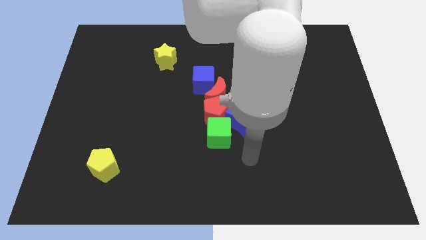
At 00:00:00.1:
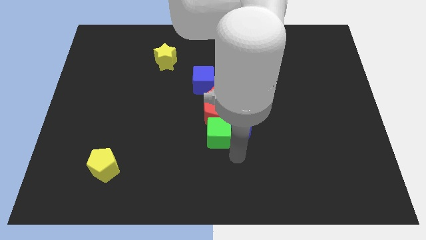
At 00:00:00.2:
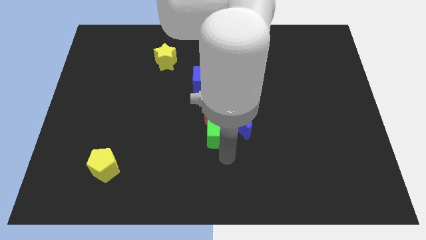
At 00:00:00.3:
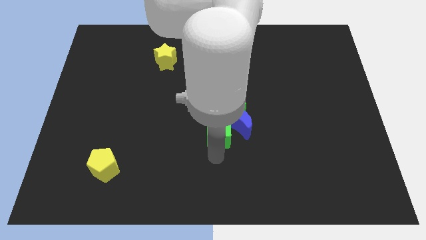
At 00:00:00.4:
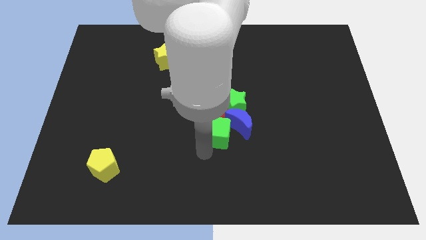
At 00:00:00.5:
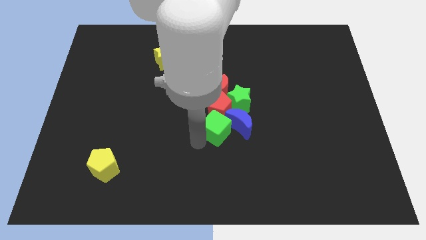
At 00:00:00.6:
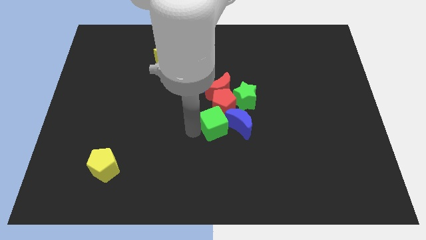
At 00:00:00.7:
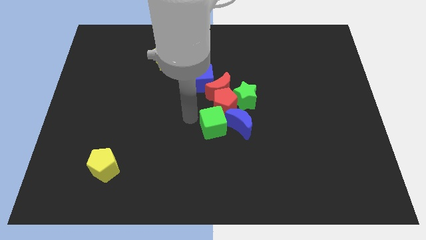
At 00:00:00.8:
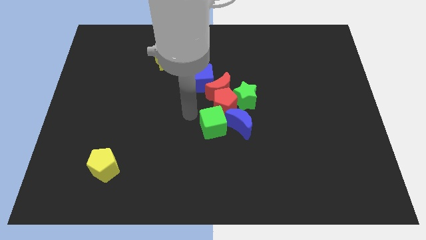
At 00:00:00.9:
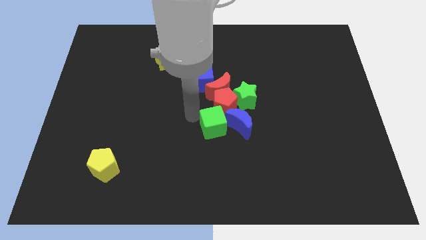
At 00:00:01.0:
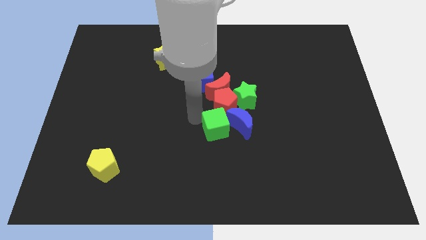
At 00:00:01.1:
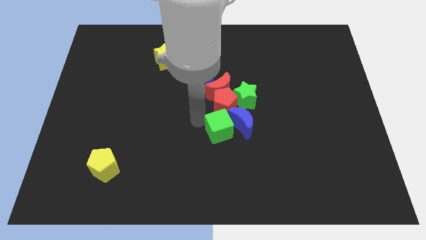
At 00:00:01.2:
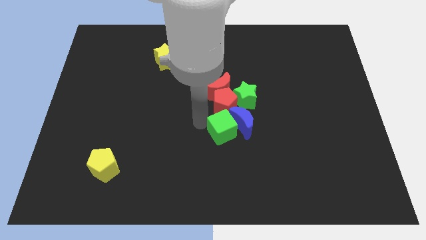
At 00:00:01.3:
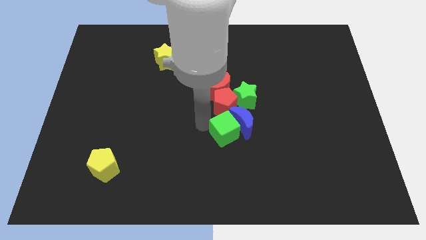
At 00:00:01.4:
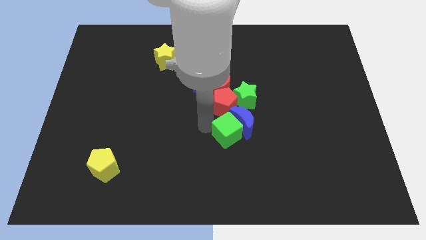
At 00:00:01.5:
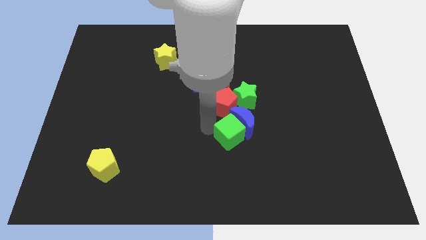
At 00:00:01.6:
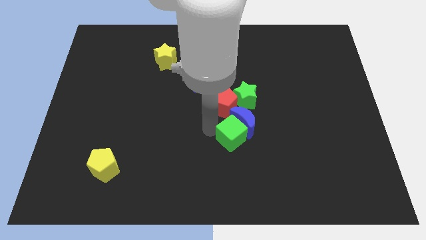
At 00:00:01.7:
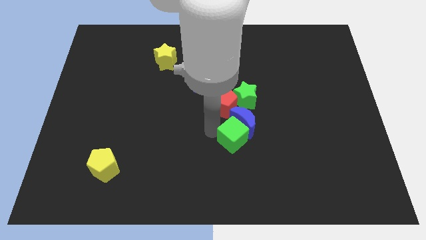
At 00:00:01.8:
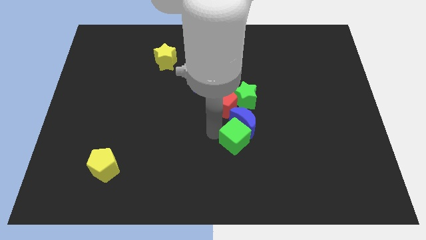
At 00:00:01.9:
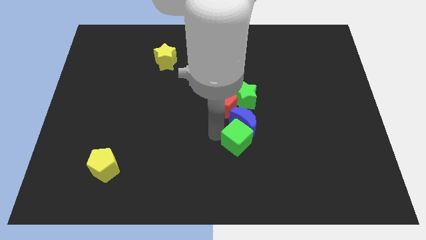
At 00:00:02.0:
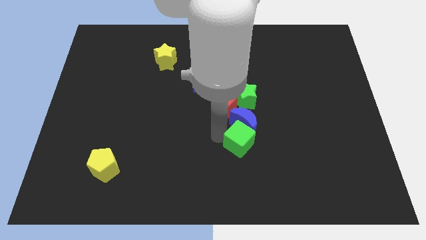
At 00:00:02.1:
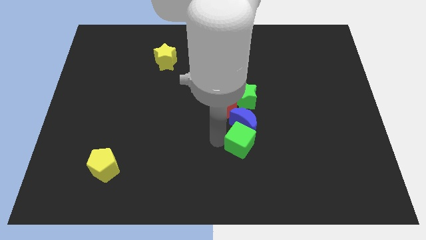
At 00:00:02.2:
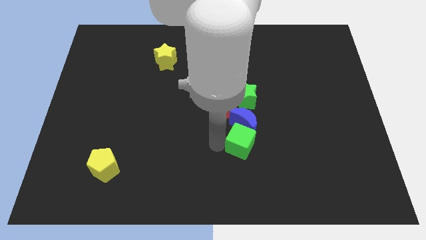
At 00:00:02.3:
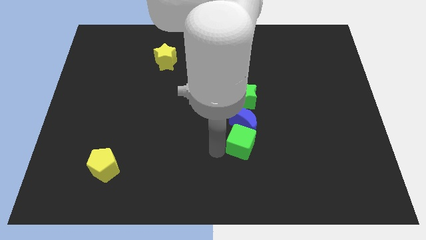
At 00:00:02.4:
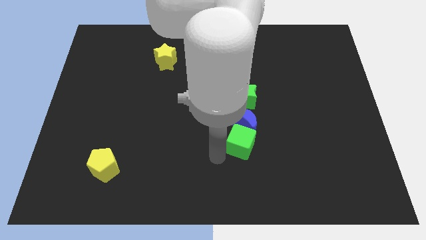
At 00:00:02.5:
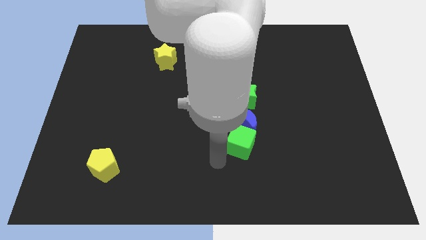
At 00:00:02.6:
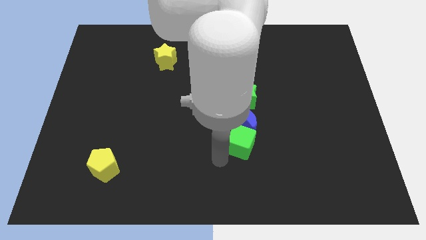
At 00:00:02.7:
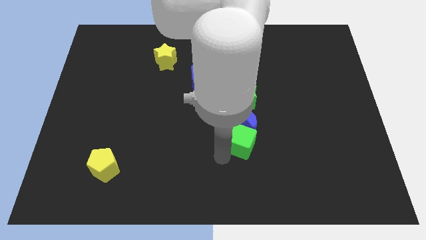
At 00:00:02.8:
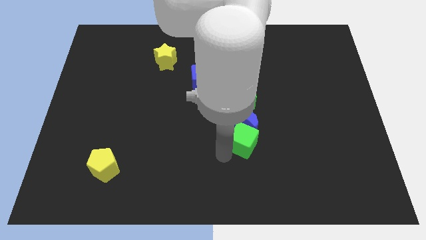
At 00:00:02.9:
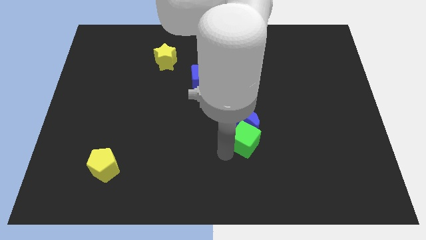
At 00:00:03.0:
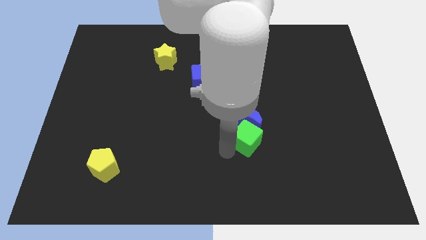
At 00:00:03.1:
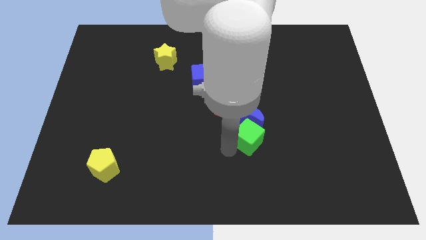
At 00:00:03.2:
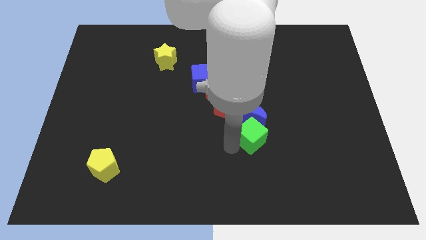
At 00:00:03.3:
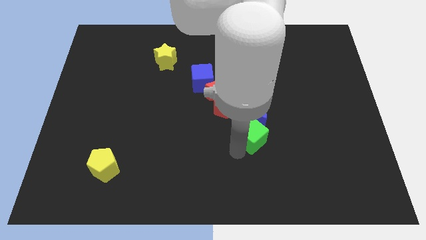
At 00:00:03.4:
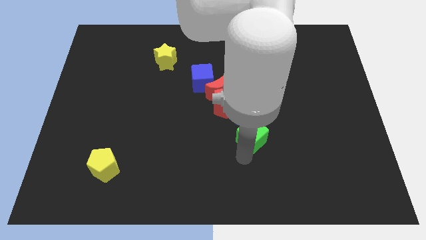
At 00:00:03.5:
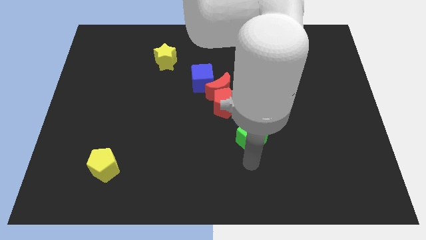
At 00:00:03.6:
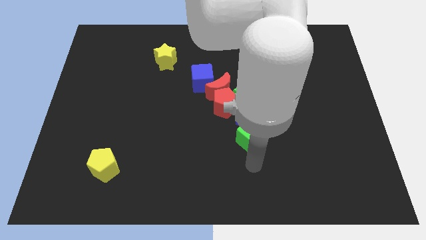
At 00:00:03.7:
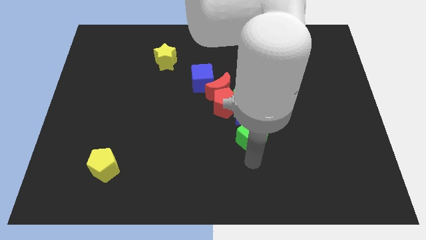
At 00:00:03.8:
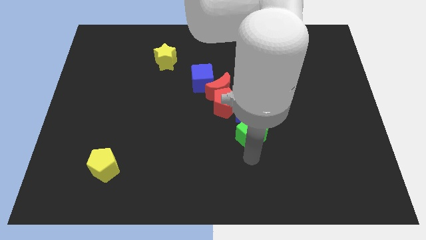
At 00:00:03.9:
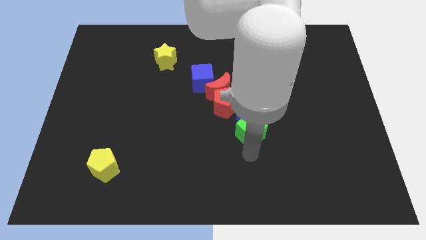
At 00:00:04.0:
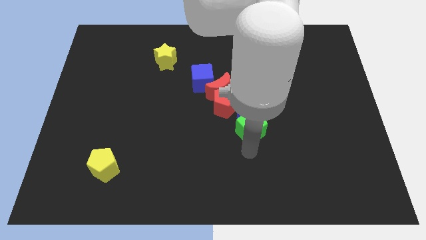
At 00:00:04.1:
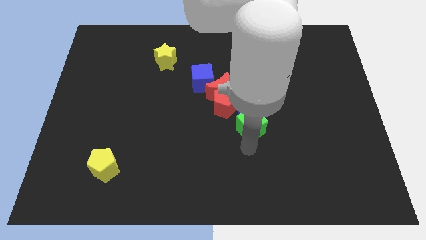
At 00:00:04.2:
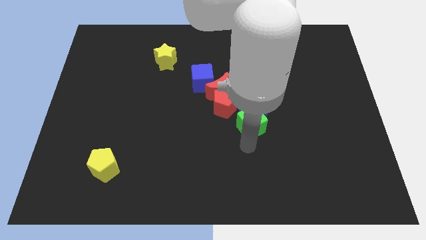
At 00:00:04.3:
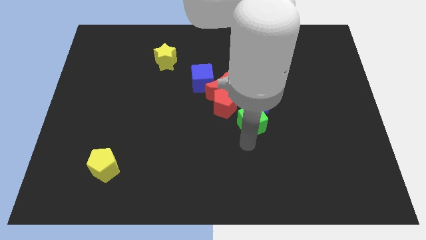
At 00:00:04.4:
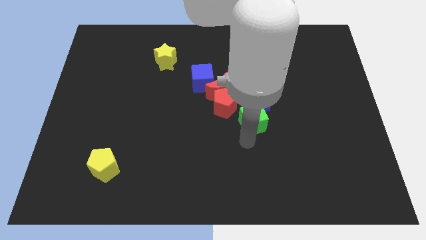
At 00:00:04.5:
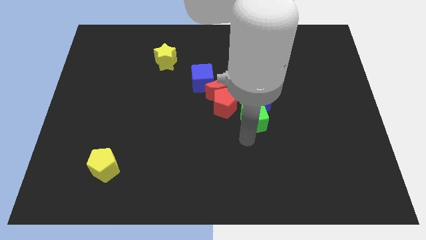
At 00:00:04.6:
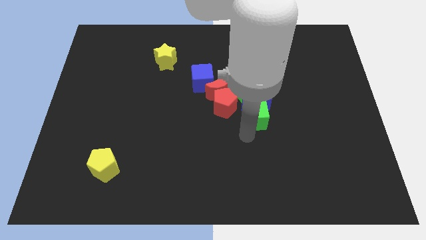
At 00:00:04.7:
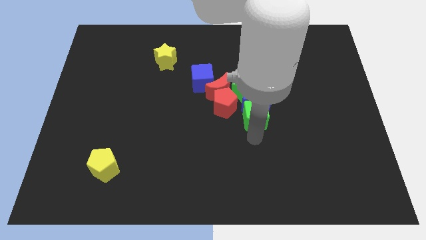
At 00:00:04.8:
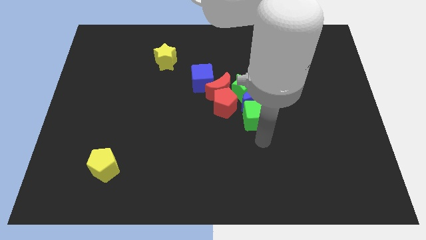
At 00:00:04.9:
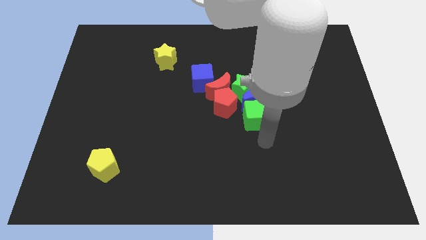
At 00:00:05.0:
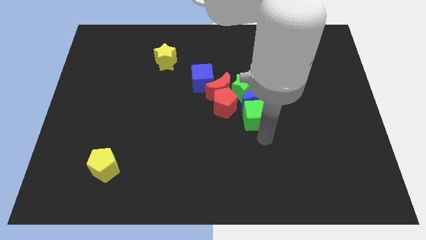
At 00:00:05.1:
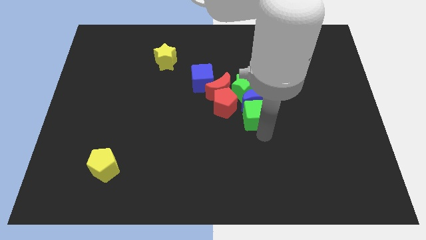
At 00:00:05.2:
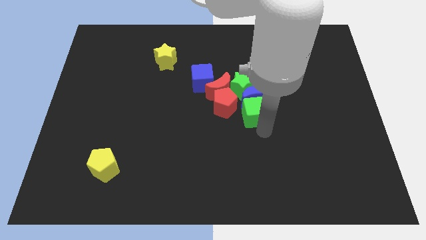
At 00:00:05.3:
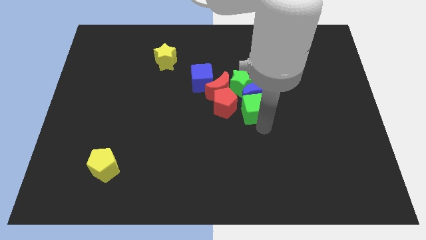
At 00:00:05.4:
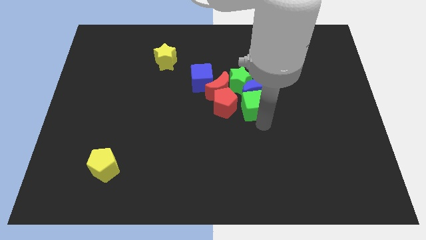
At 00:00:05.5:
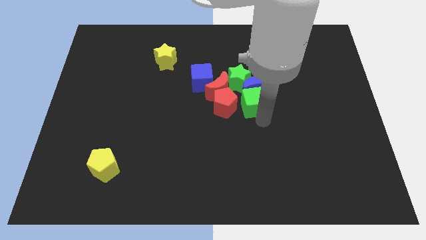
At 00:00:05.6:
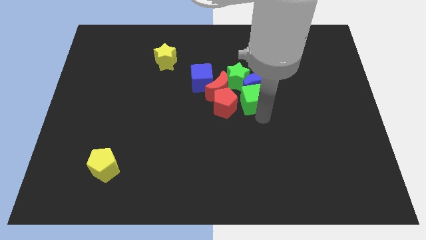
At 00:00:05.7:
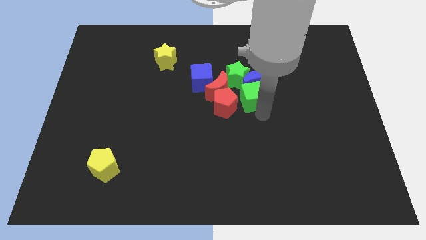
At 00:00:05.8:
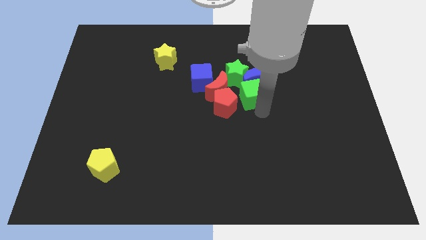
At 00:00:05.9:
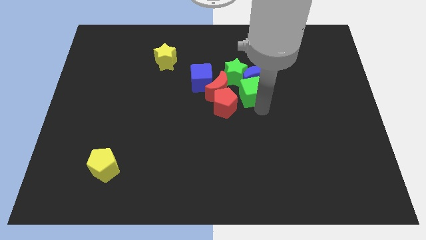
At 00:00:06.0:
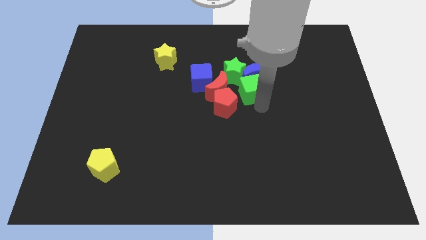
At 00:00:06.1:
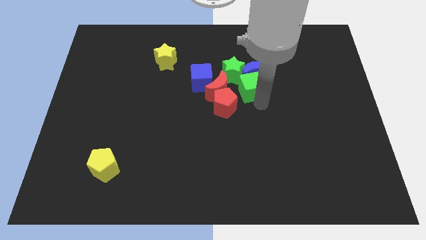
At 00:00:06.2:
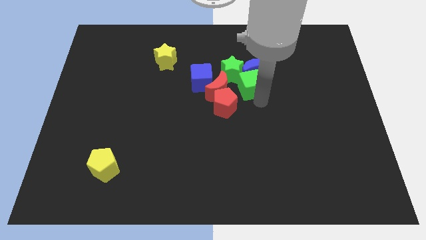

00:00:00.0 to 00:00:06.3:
slide the green cube to the green star

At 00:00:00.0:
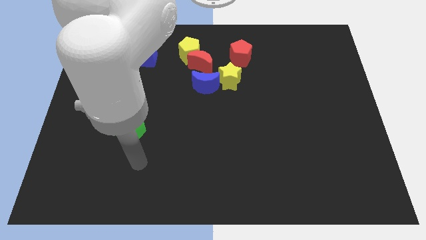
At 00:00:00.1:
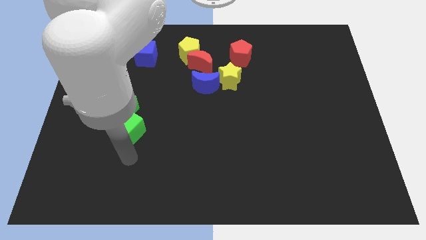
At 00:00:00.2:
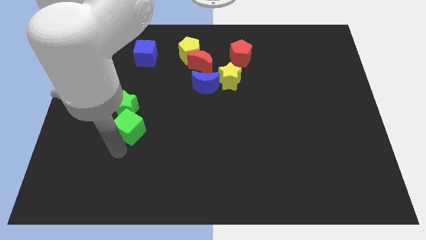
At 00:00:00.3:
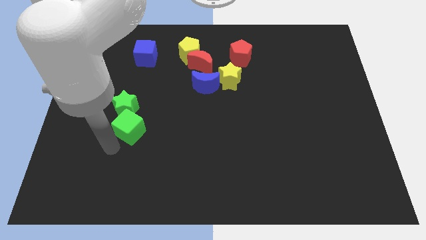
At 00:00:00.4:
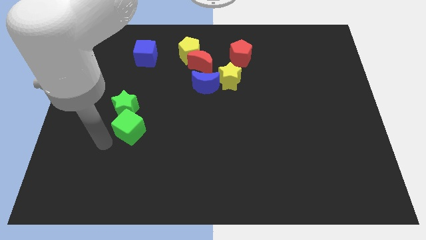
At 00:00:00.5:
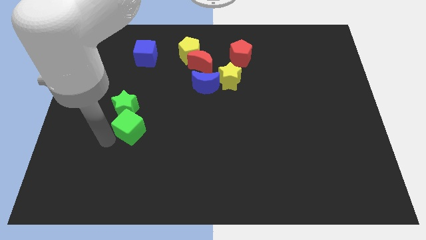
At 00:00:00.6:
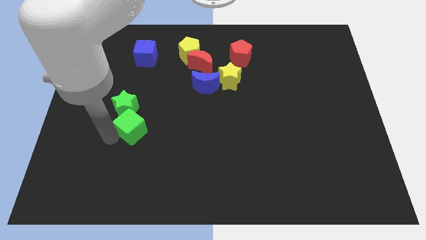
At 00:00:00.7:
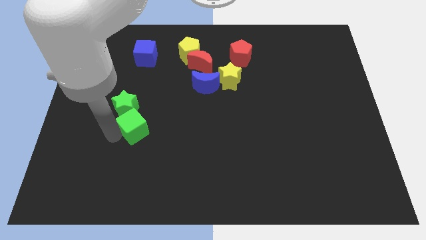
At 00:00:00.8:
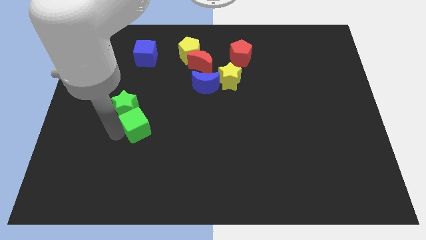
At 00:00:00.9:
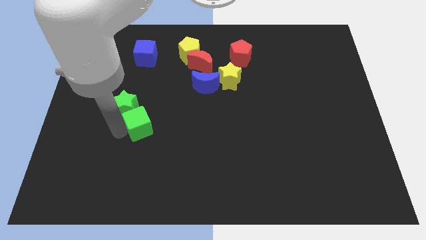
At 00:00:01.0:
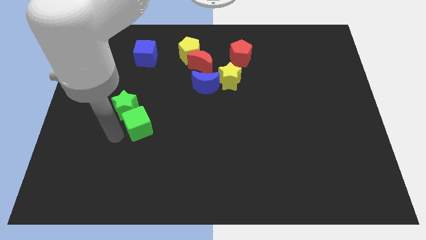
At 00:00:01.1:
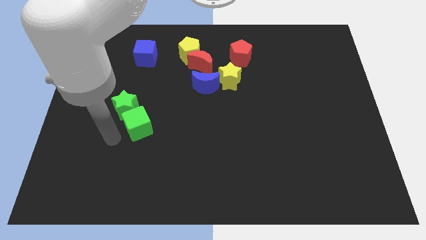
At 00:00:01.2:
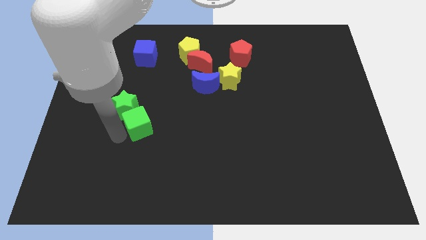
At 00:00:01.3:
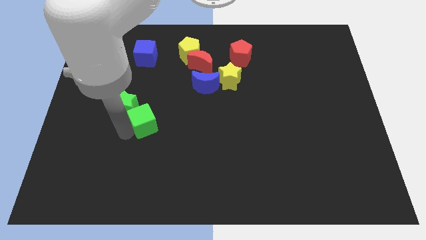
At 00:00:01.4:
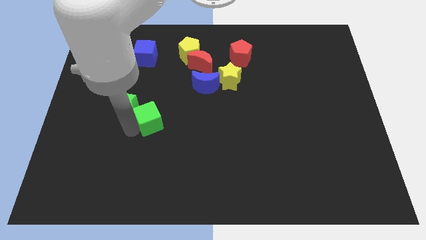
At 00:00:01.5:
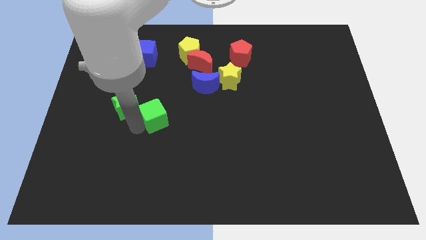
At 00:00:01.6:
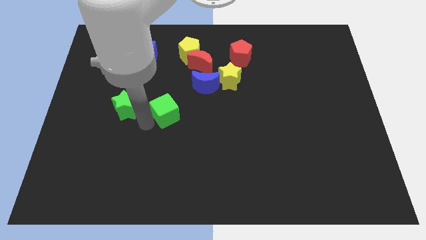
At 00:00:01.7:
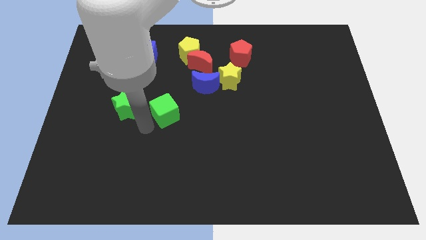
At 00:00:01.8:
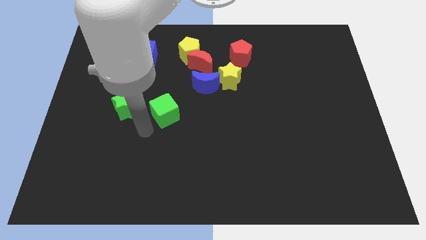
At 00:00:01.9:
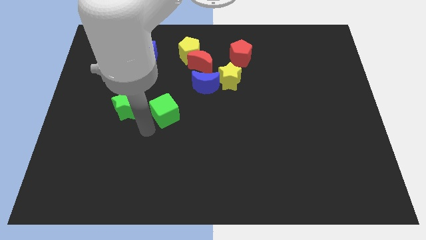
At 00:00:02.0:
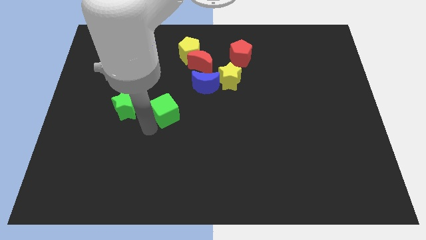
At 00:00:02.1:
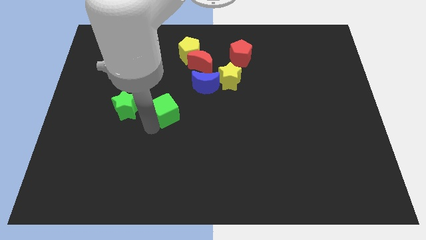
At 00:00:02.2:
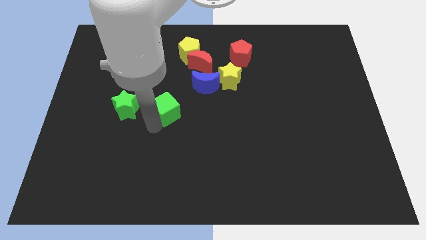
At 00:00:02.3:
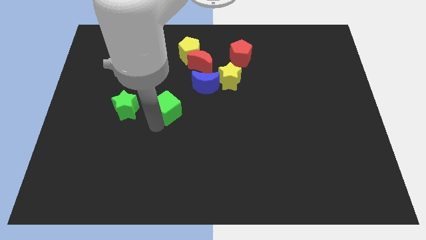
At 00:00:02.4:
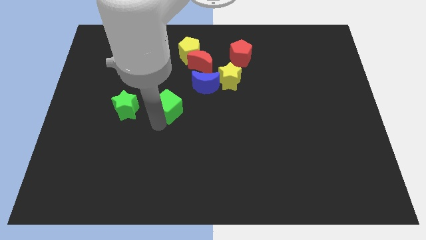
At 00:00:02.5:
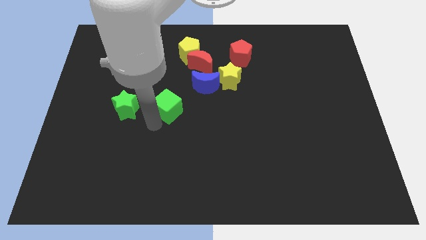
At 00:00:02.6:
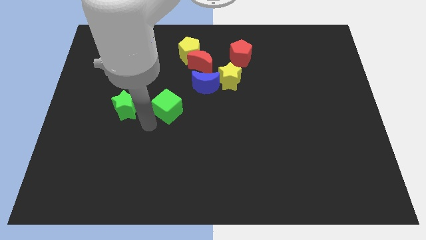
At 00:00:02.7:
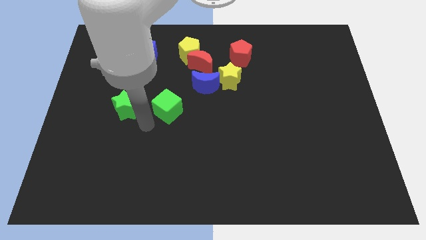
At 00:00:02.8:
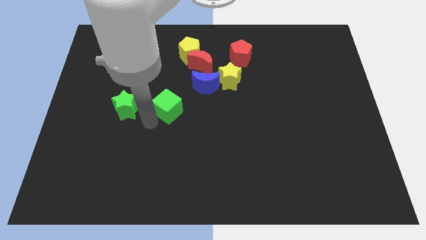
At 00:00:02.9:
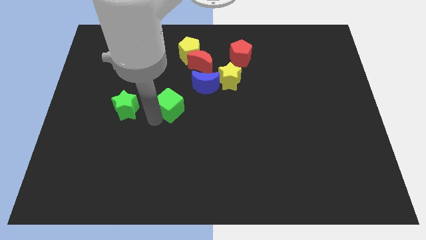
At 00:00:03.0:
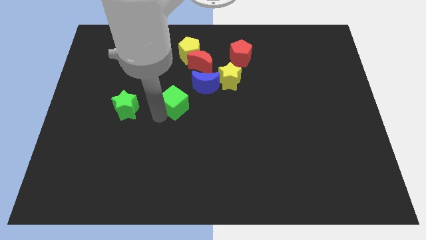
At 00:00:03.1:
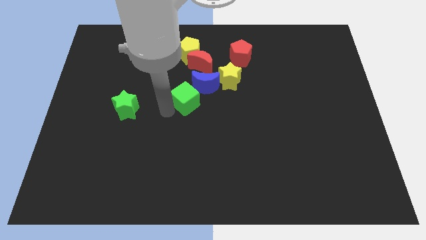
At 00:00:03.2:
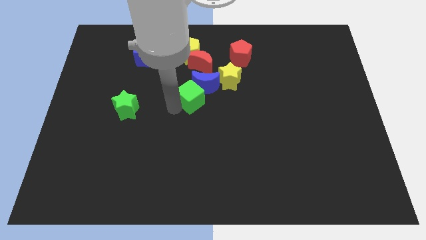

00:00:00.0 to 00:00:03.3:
slide the green cube close to the blue moon
